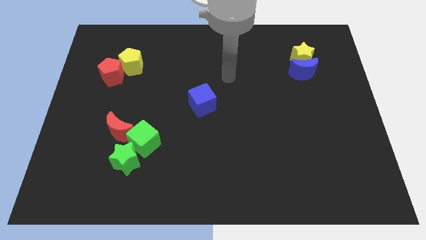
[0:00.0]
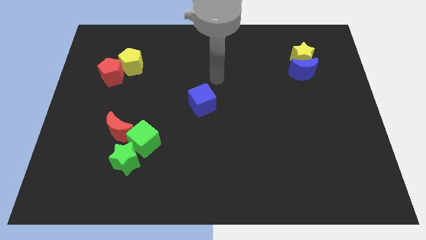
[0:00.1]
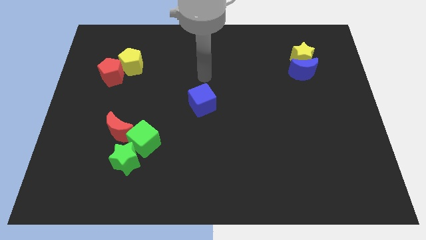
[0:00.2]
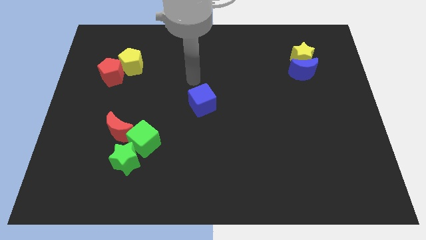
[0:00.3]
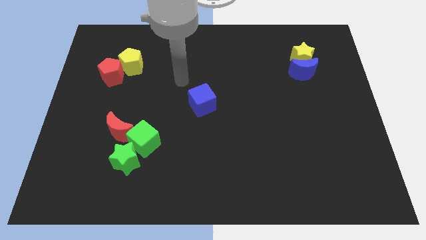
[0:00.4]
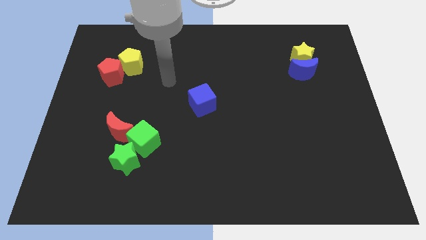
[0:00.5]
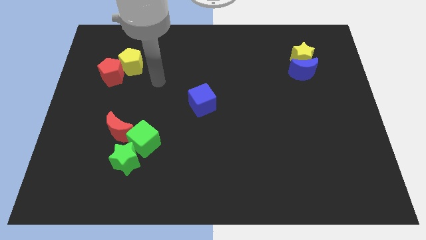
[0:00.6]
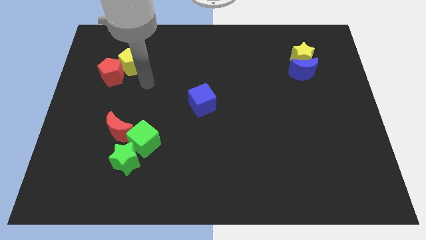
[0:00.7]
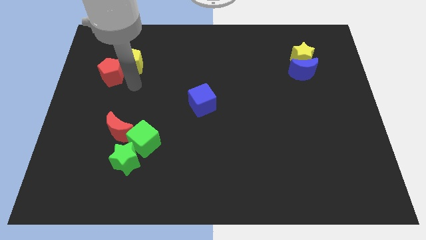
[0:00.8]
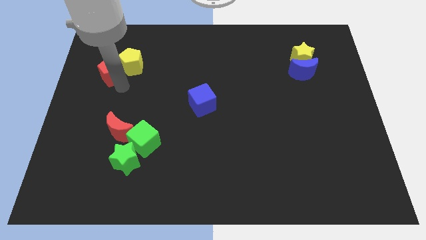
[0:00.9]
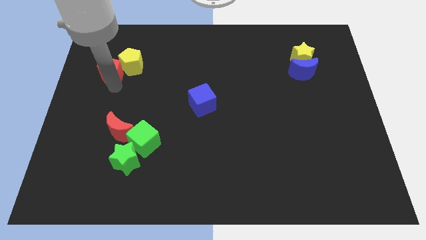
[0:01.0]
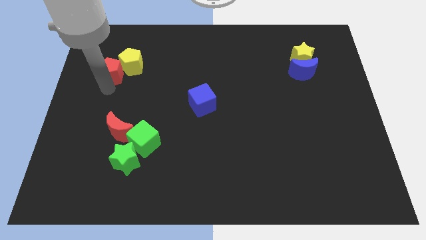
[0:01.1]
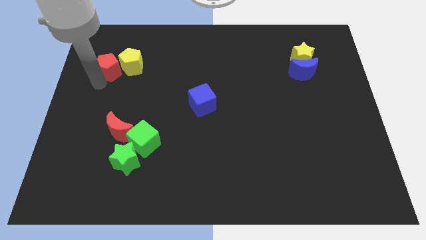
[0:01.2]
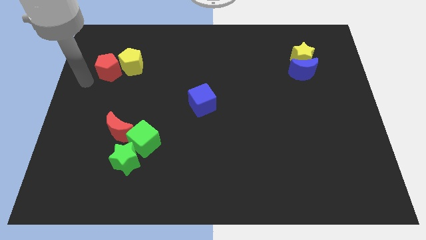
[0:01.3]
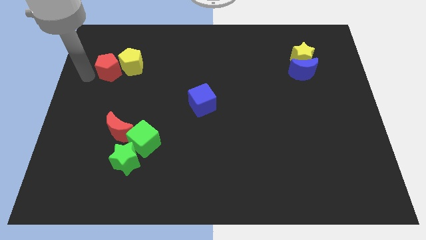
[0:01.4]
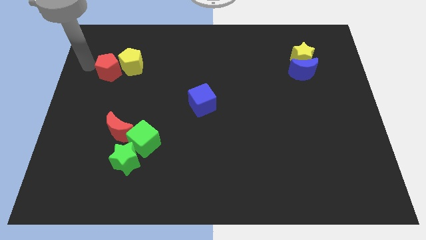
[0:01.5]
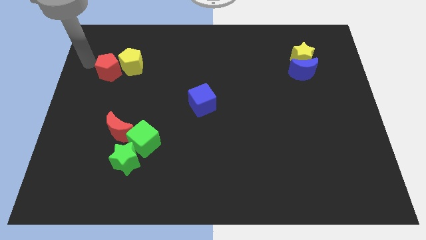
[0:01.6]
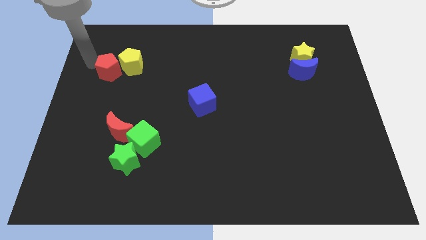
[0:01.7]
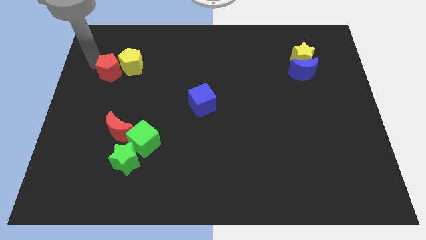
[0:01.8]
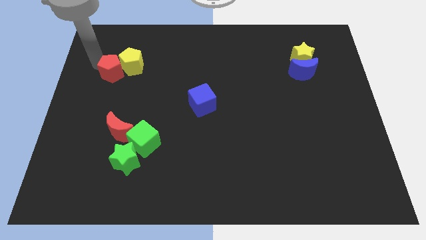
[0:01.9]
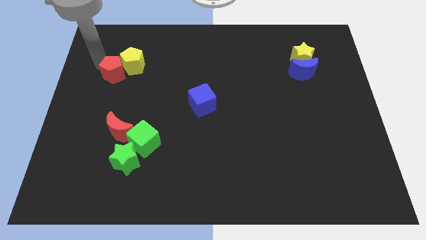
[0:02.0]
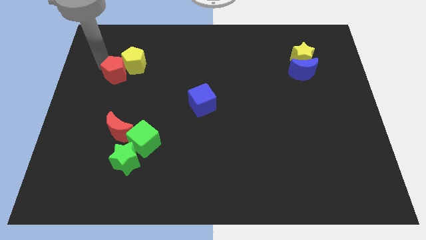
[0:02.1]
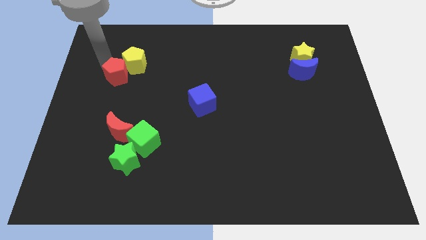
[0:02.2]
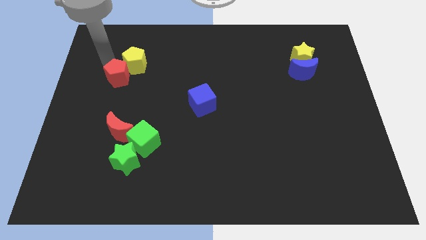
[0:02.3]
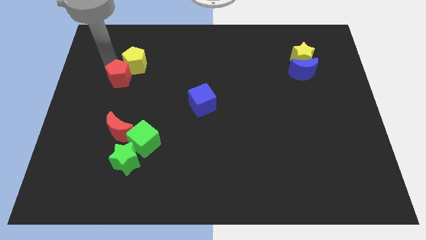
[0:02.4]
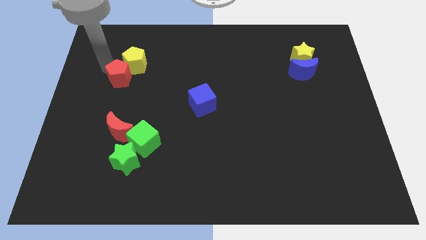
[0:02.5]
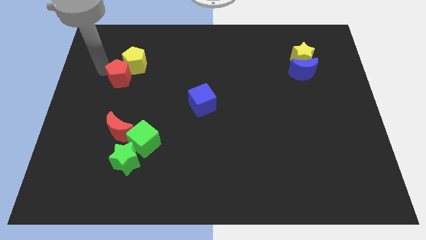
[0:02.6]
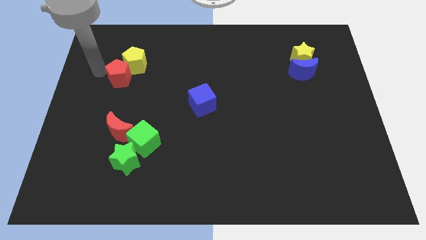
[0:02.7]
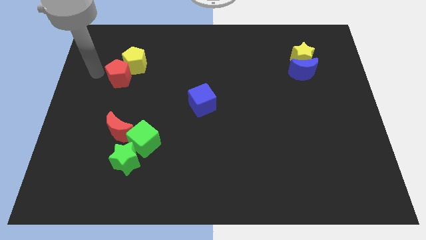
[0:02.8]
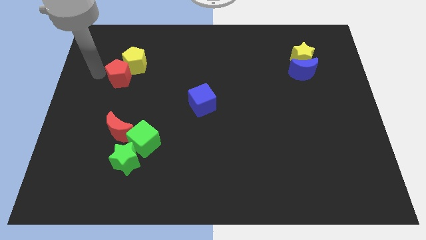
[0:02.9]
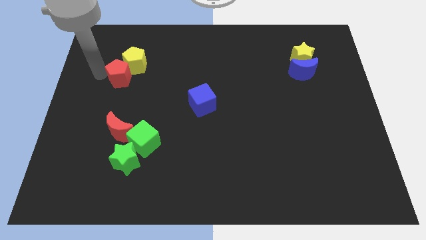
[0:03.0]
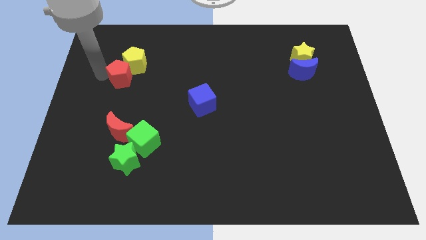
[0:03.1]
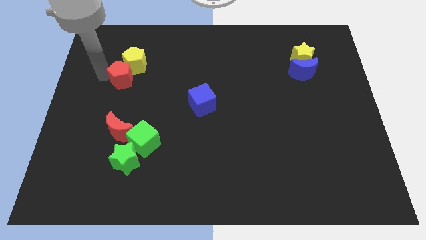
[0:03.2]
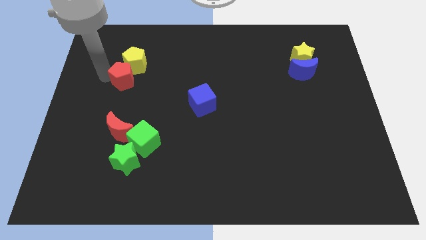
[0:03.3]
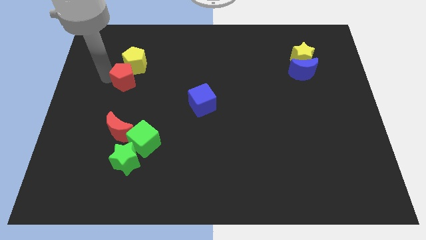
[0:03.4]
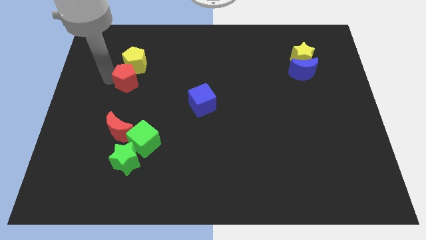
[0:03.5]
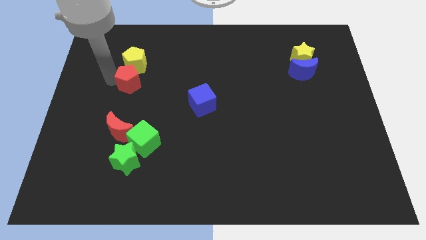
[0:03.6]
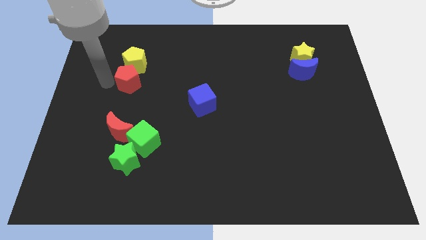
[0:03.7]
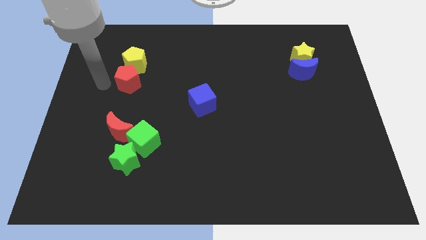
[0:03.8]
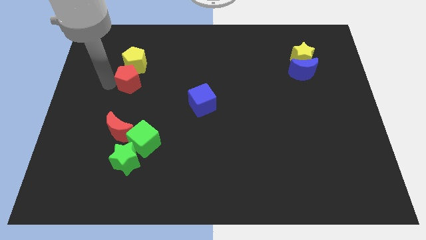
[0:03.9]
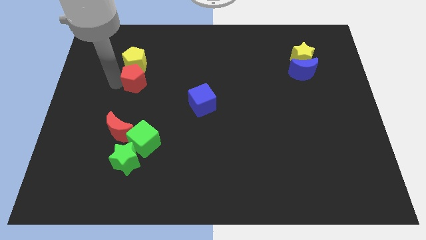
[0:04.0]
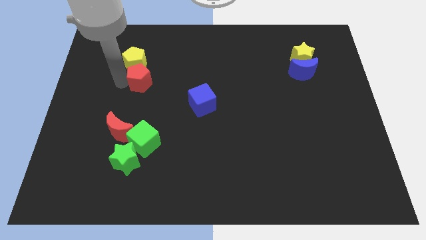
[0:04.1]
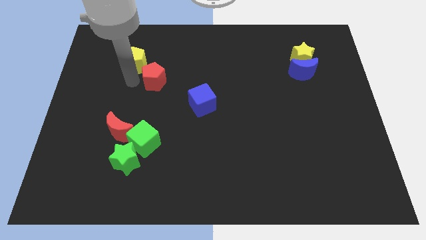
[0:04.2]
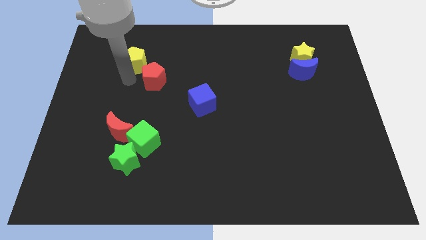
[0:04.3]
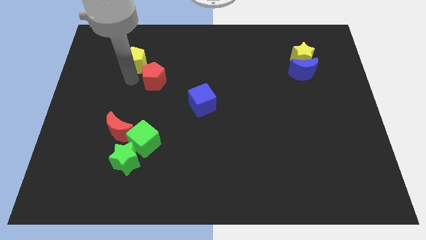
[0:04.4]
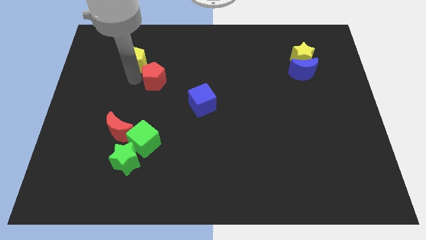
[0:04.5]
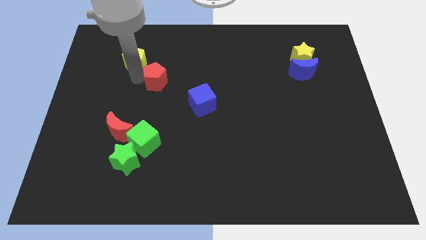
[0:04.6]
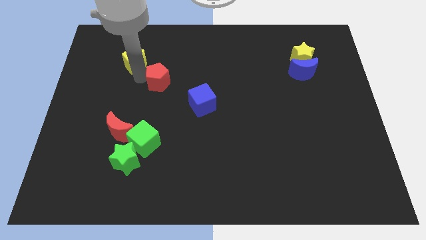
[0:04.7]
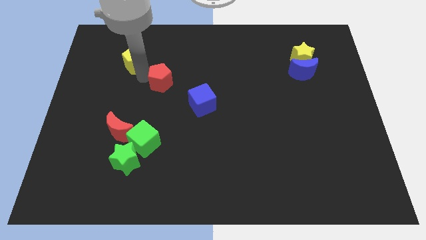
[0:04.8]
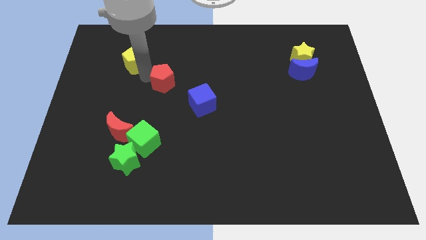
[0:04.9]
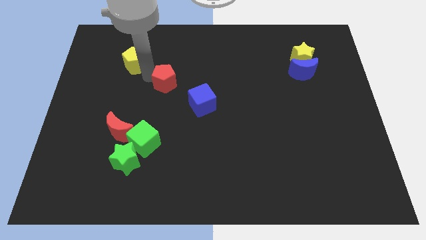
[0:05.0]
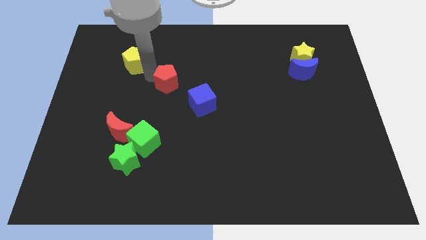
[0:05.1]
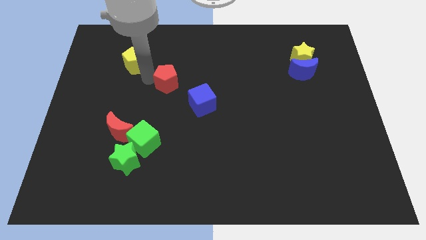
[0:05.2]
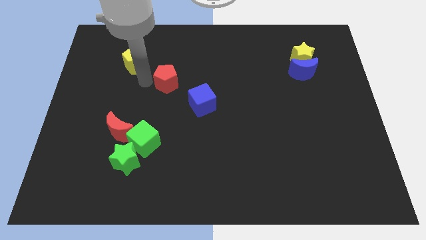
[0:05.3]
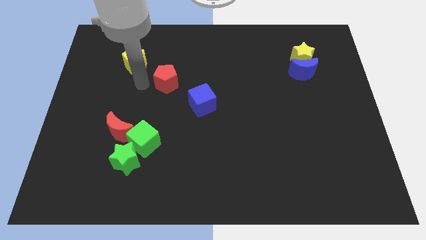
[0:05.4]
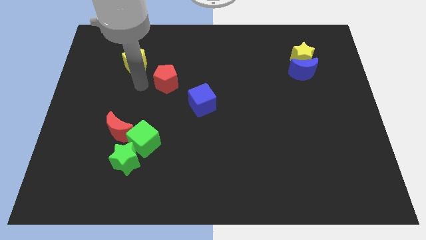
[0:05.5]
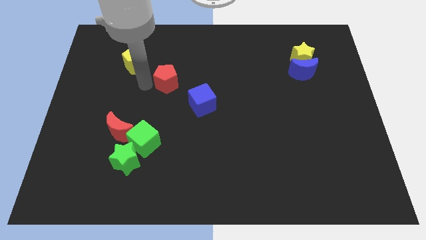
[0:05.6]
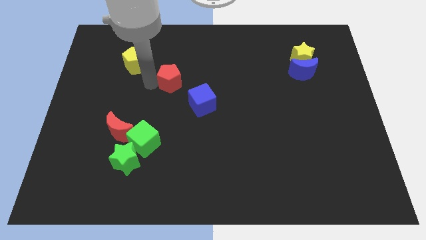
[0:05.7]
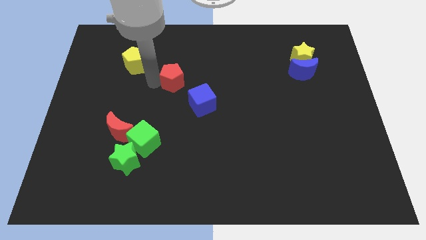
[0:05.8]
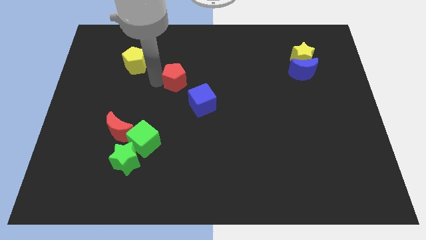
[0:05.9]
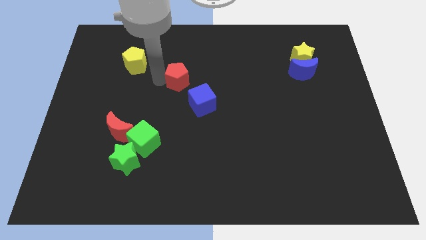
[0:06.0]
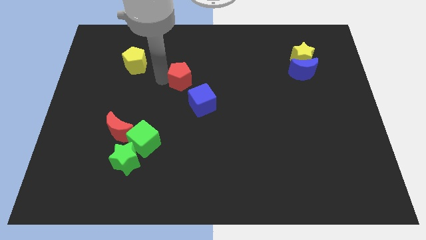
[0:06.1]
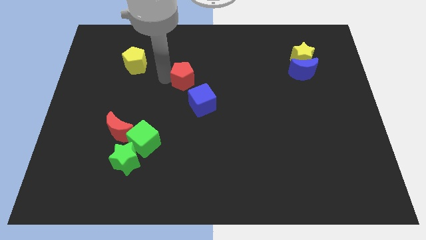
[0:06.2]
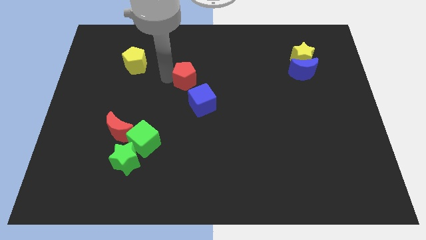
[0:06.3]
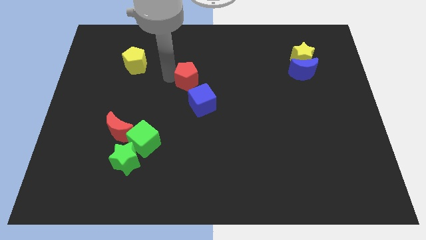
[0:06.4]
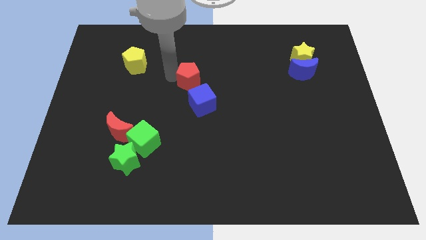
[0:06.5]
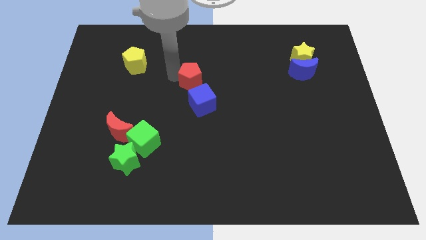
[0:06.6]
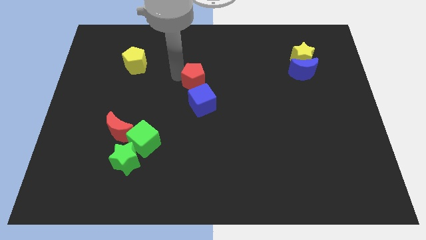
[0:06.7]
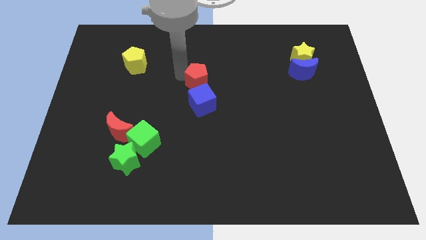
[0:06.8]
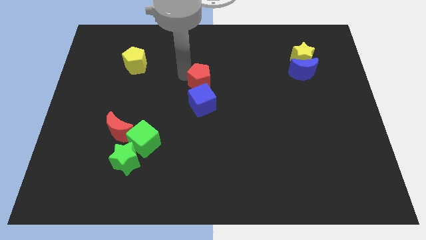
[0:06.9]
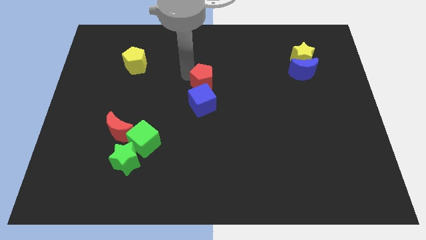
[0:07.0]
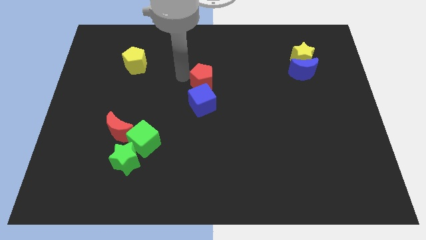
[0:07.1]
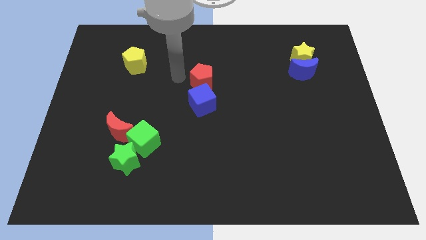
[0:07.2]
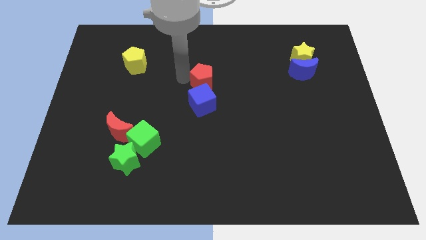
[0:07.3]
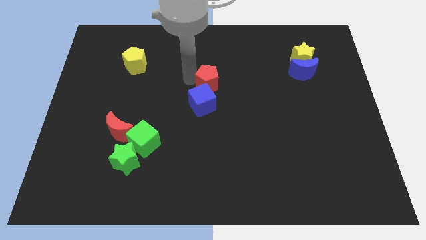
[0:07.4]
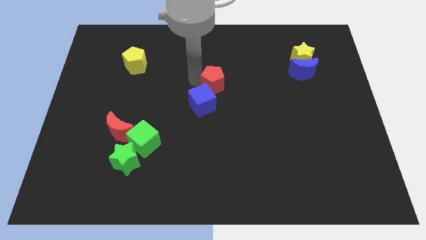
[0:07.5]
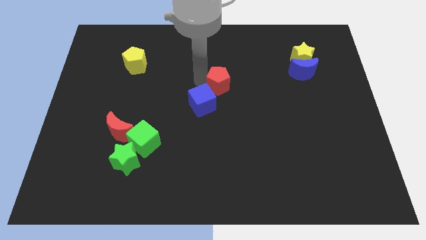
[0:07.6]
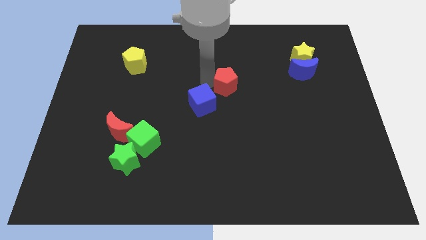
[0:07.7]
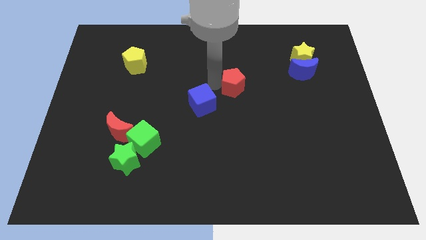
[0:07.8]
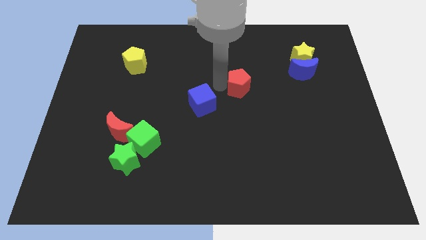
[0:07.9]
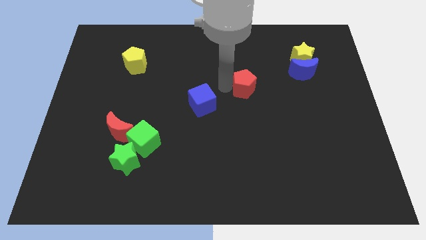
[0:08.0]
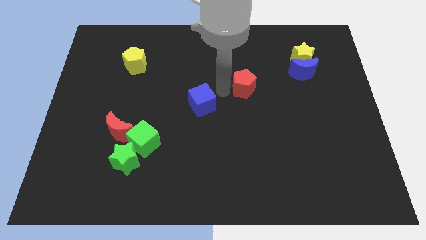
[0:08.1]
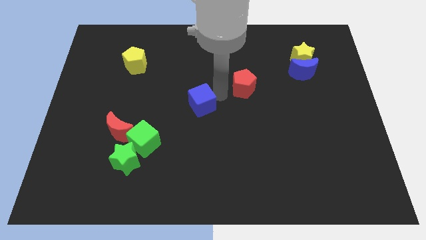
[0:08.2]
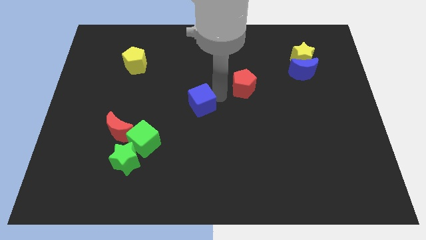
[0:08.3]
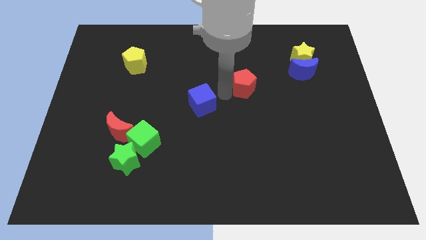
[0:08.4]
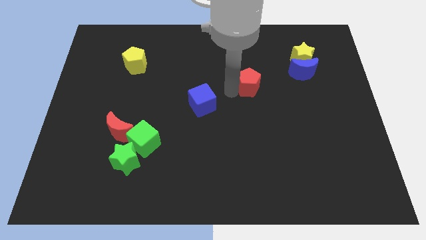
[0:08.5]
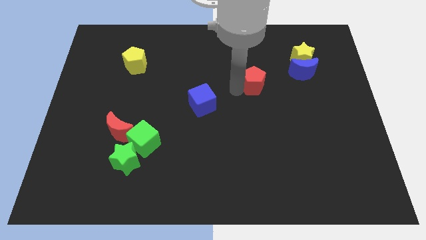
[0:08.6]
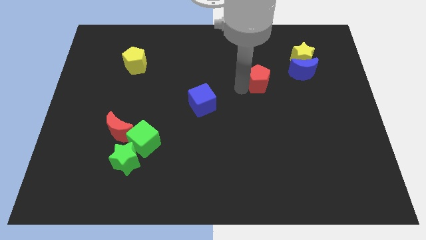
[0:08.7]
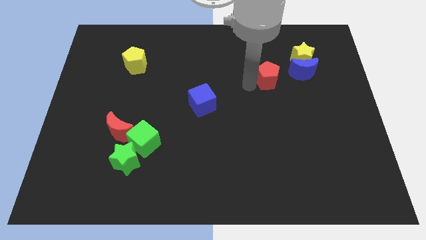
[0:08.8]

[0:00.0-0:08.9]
push the red pentagon to the bottom left of the yellow star
